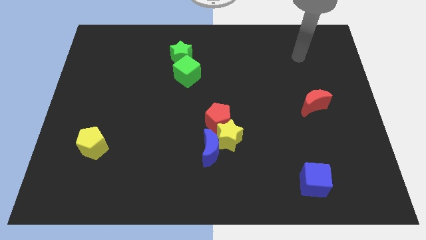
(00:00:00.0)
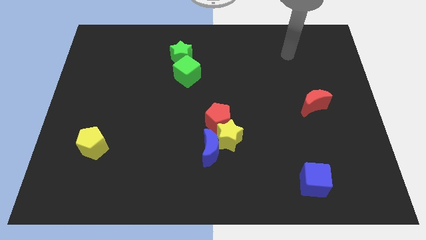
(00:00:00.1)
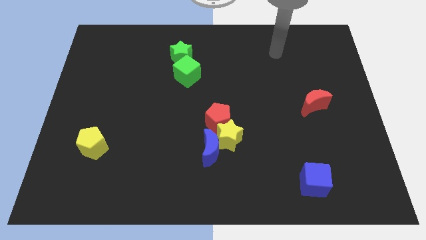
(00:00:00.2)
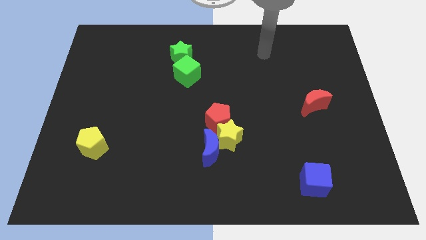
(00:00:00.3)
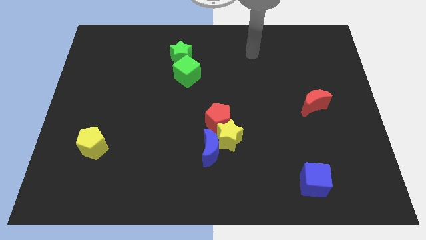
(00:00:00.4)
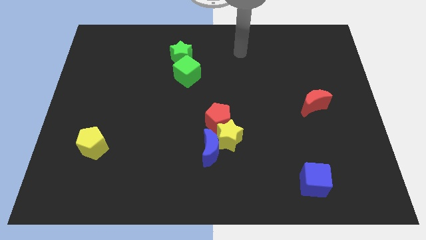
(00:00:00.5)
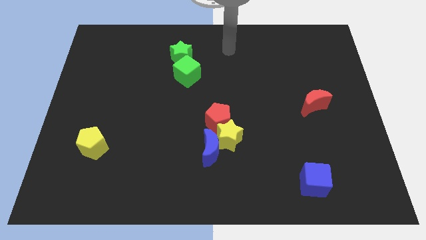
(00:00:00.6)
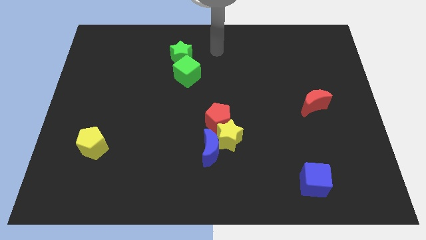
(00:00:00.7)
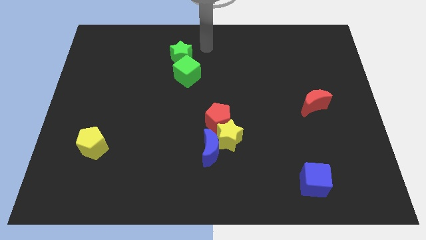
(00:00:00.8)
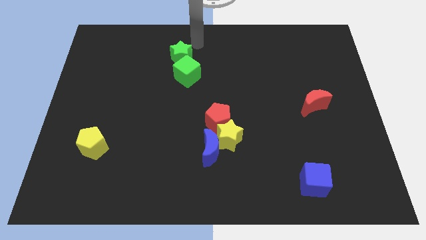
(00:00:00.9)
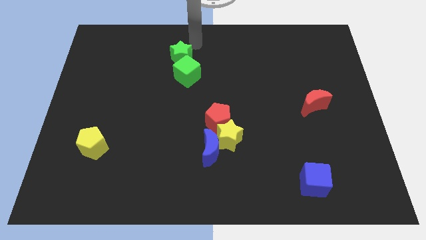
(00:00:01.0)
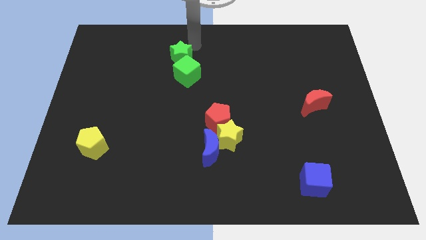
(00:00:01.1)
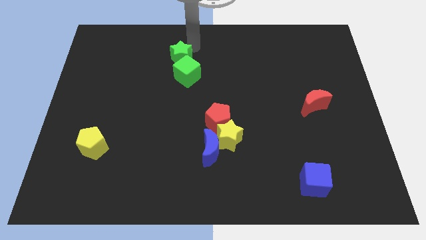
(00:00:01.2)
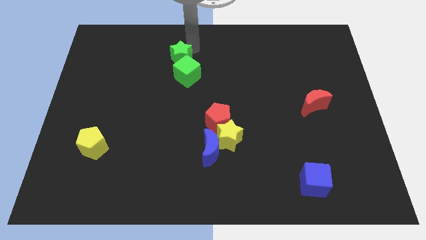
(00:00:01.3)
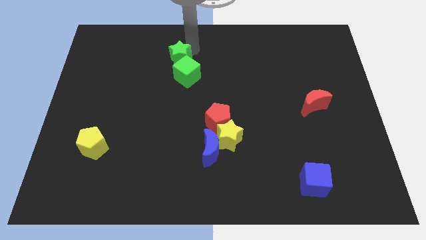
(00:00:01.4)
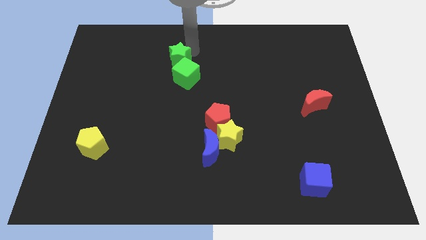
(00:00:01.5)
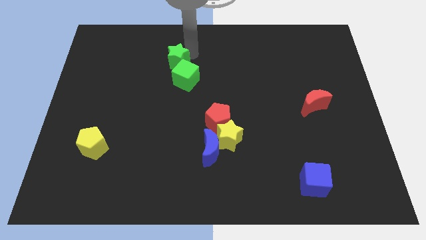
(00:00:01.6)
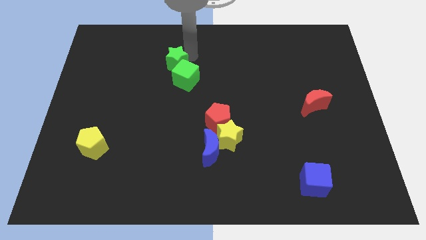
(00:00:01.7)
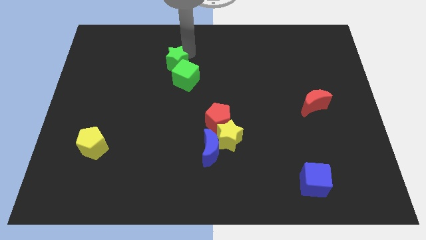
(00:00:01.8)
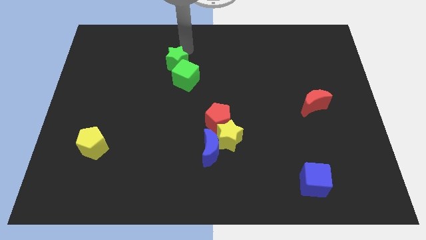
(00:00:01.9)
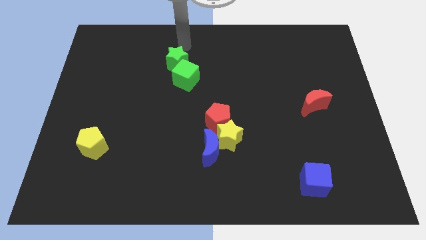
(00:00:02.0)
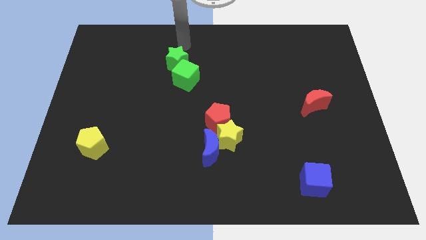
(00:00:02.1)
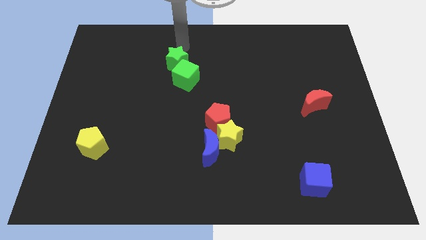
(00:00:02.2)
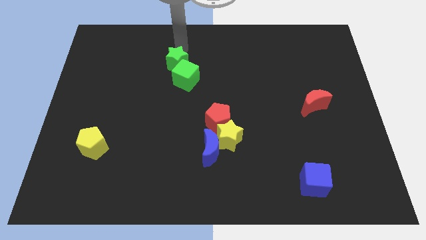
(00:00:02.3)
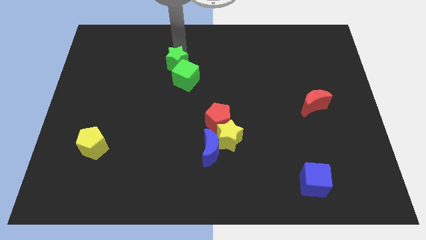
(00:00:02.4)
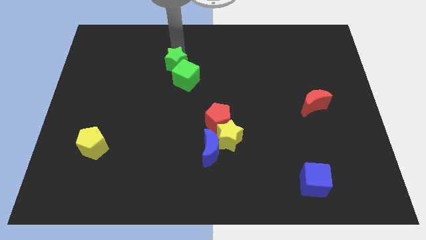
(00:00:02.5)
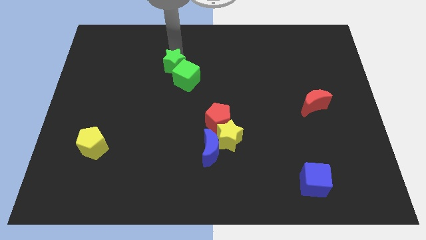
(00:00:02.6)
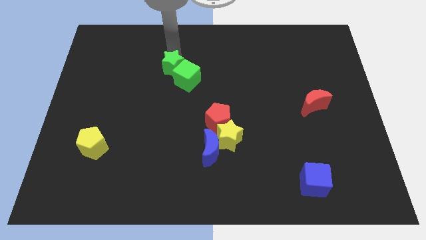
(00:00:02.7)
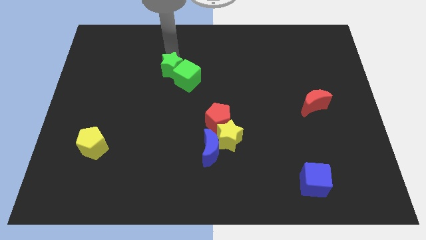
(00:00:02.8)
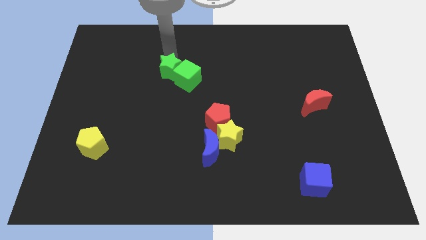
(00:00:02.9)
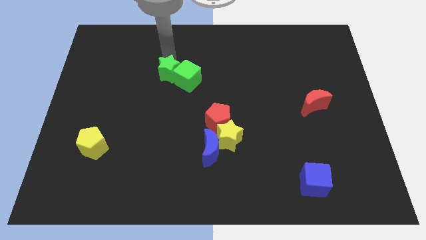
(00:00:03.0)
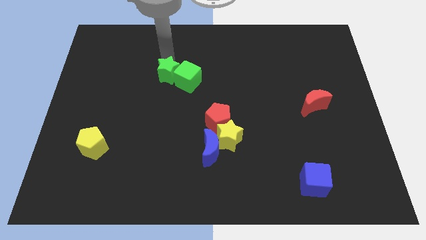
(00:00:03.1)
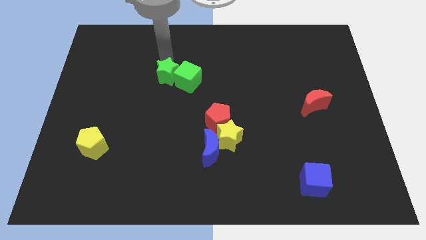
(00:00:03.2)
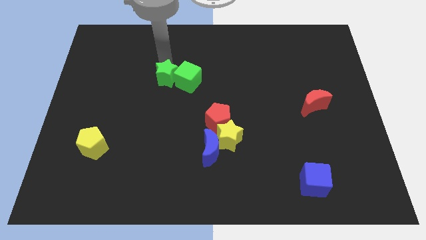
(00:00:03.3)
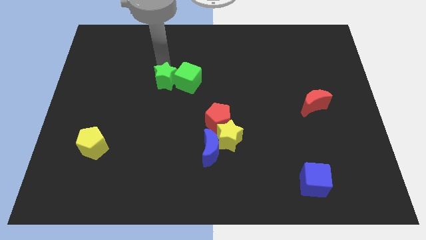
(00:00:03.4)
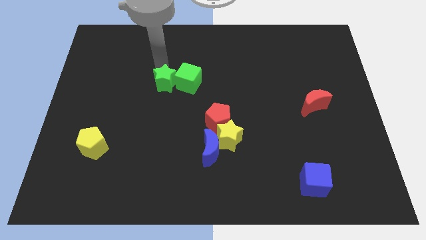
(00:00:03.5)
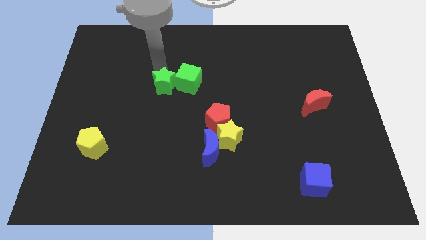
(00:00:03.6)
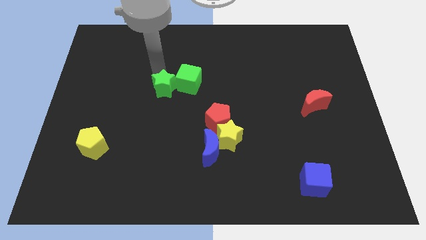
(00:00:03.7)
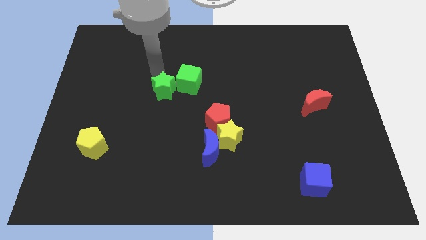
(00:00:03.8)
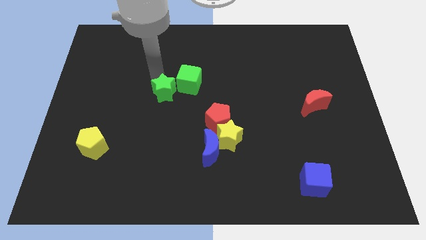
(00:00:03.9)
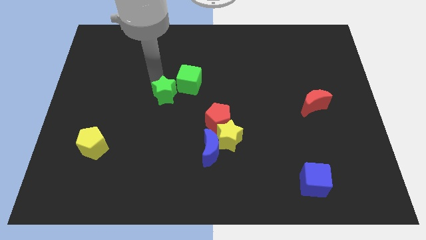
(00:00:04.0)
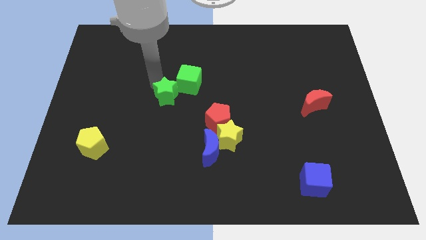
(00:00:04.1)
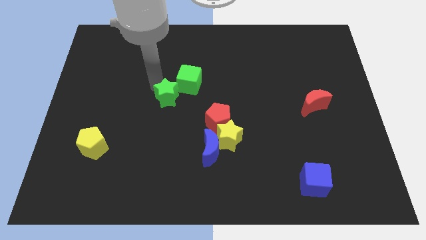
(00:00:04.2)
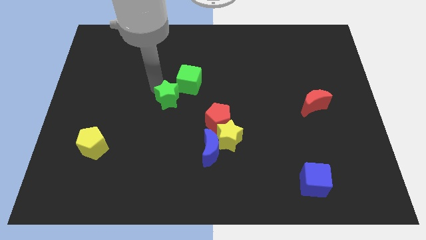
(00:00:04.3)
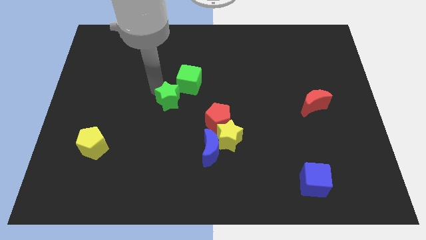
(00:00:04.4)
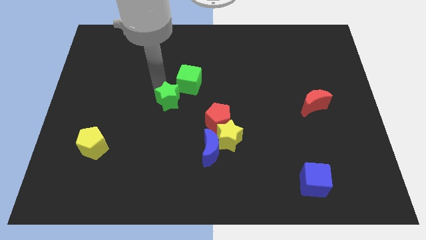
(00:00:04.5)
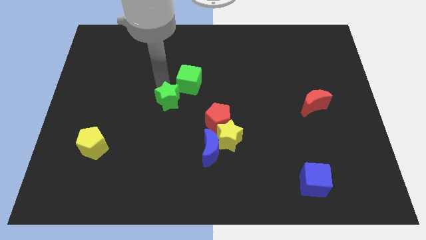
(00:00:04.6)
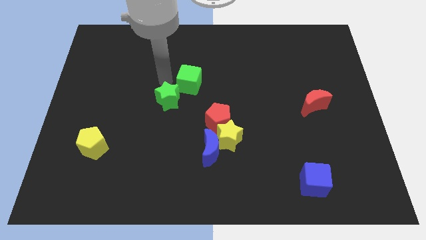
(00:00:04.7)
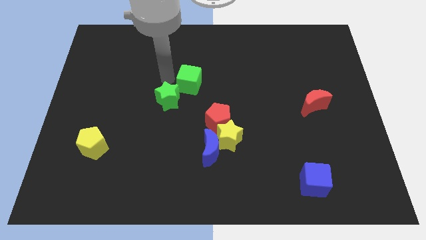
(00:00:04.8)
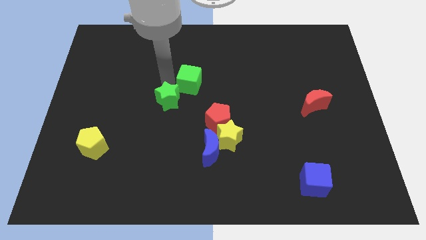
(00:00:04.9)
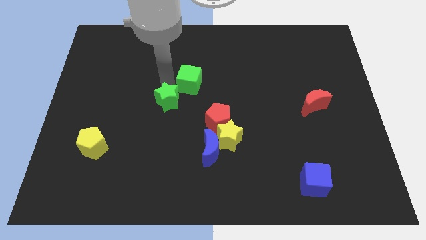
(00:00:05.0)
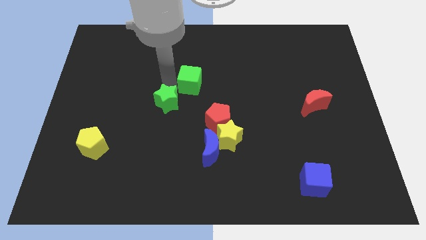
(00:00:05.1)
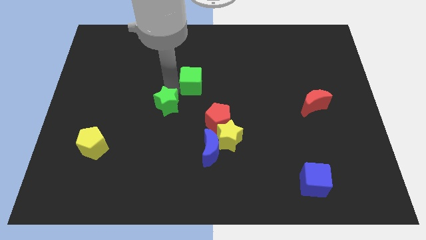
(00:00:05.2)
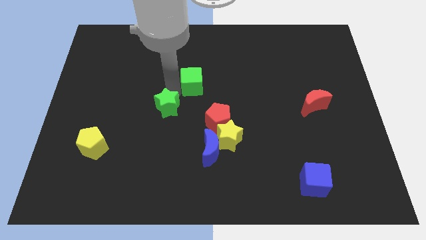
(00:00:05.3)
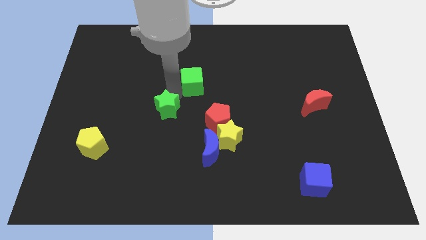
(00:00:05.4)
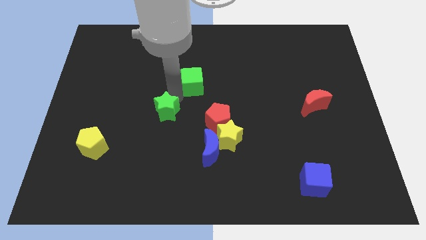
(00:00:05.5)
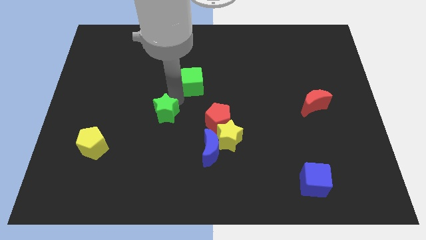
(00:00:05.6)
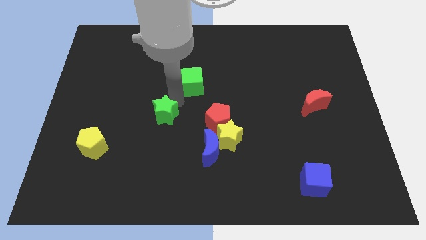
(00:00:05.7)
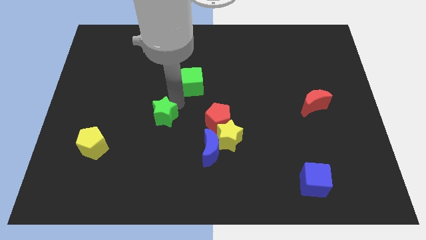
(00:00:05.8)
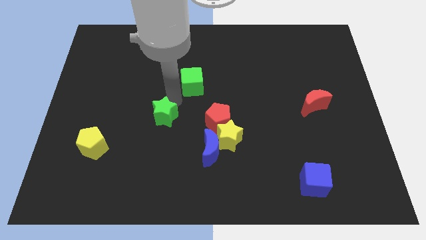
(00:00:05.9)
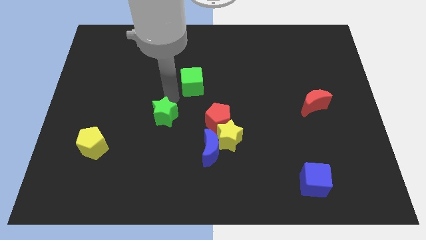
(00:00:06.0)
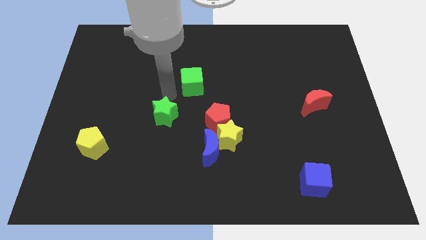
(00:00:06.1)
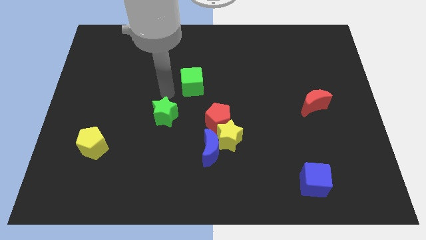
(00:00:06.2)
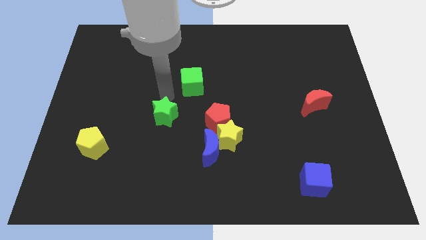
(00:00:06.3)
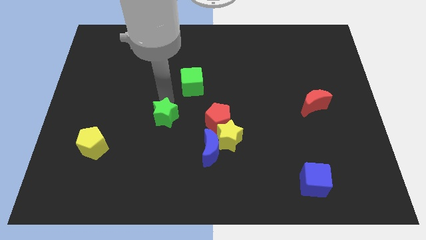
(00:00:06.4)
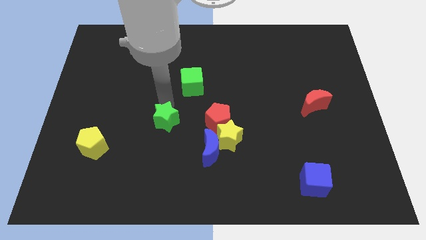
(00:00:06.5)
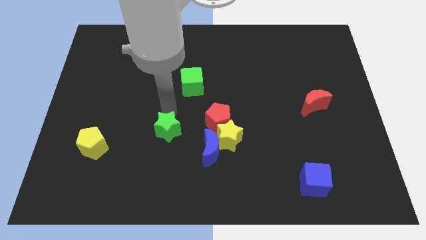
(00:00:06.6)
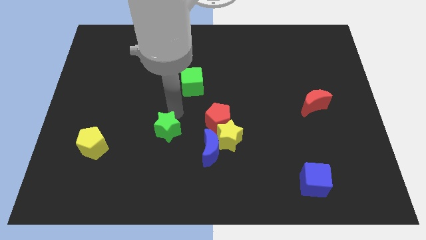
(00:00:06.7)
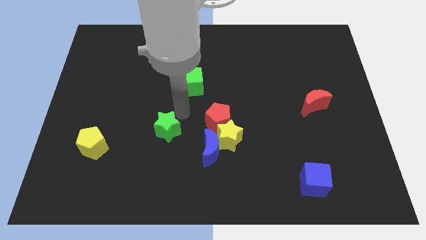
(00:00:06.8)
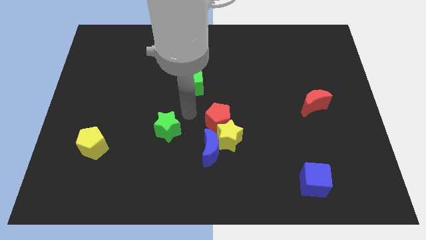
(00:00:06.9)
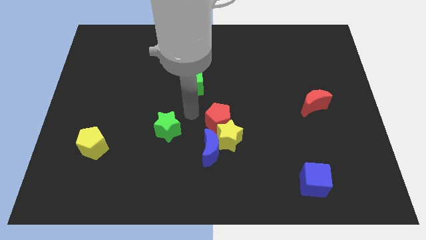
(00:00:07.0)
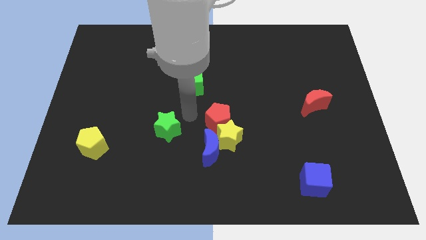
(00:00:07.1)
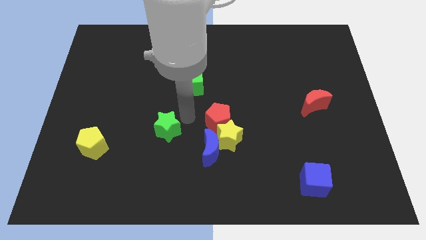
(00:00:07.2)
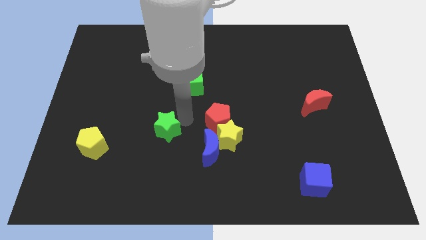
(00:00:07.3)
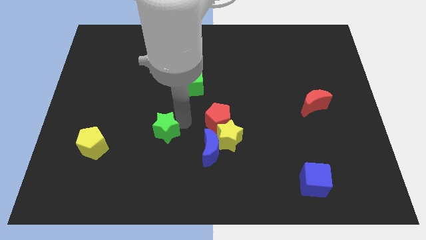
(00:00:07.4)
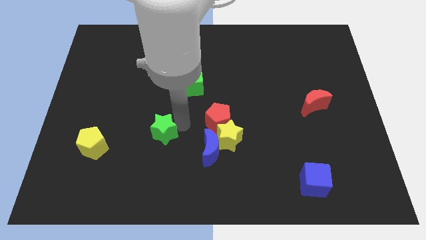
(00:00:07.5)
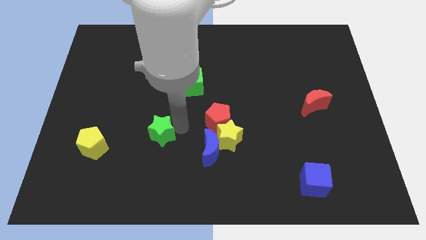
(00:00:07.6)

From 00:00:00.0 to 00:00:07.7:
slide the green star to the right side of the yellow pentagon
